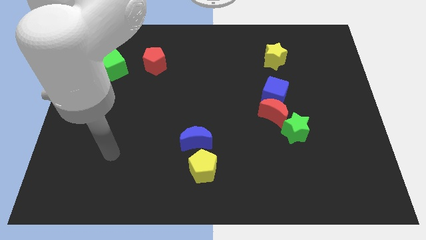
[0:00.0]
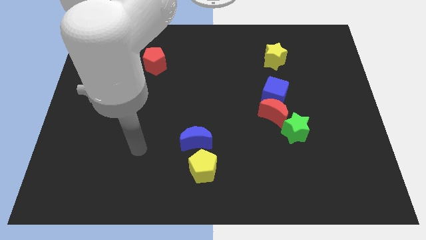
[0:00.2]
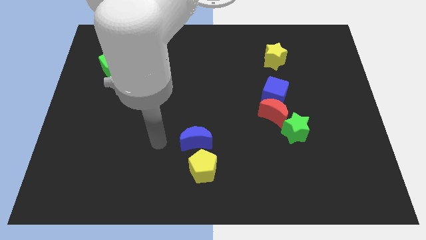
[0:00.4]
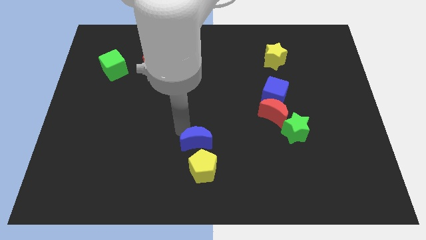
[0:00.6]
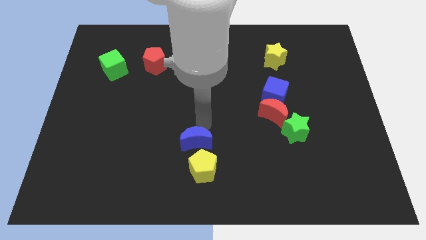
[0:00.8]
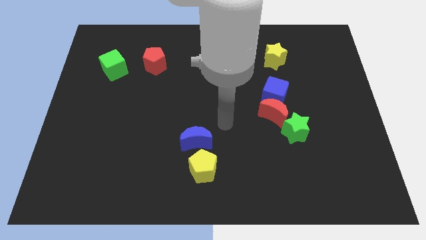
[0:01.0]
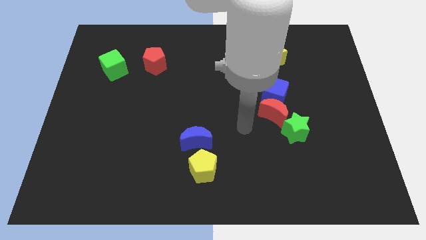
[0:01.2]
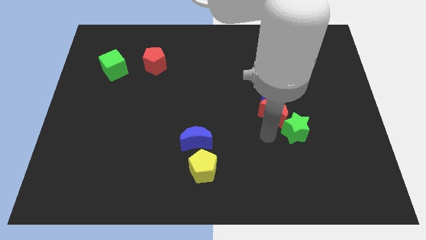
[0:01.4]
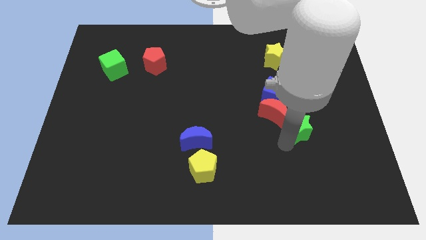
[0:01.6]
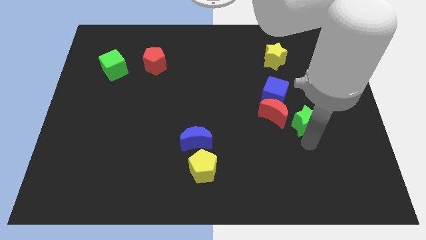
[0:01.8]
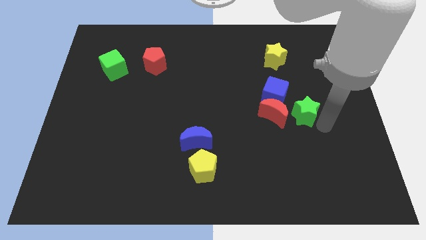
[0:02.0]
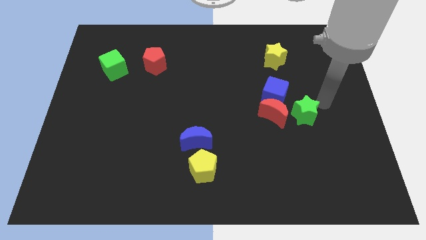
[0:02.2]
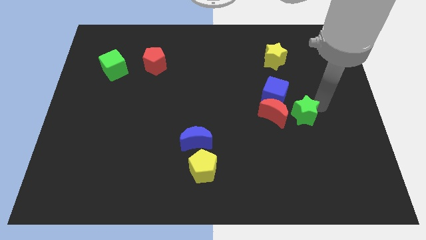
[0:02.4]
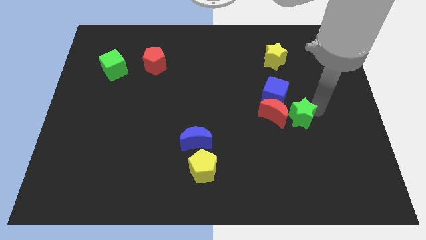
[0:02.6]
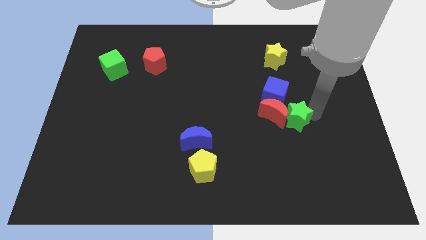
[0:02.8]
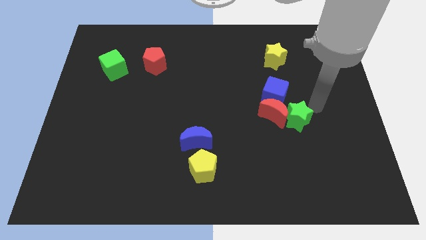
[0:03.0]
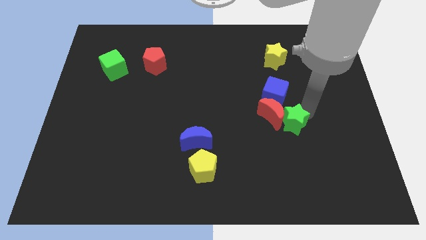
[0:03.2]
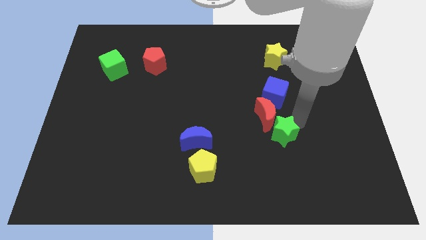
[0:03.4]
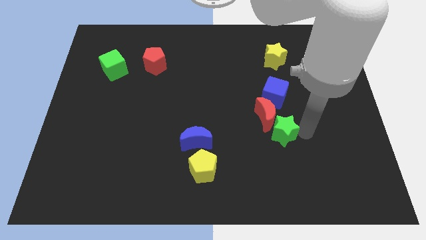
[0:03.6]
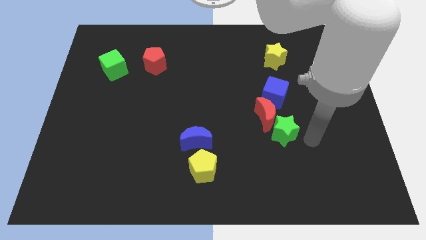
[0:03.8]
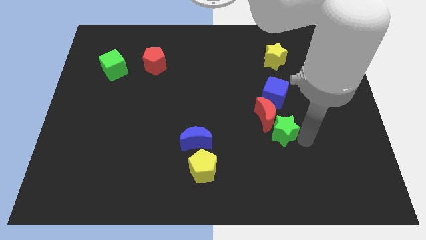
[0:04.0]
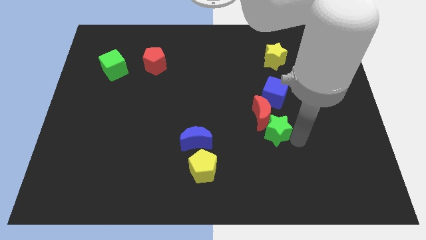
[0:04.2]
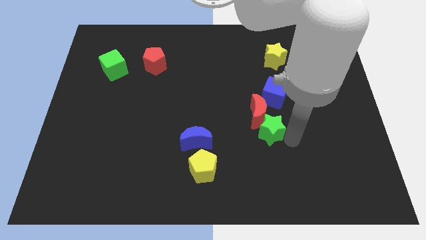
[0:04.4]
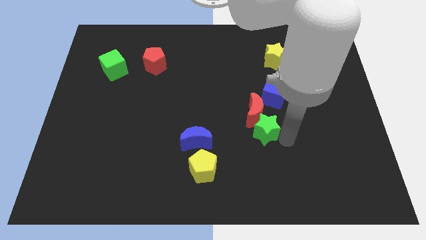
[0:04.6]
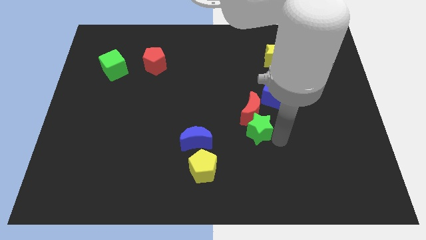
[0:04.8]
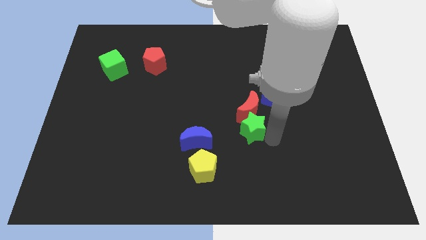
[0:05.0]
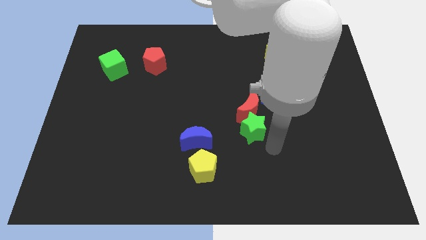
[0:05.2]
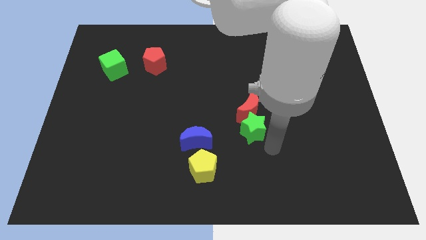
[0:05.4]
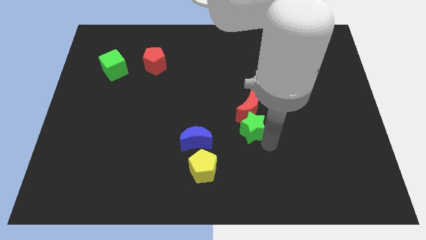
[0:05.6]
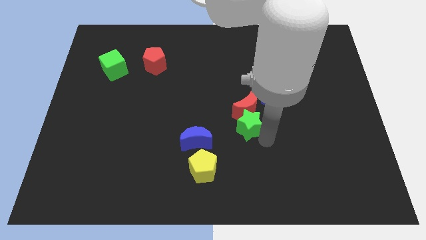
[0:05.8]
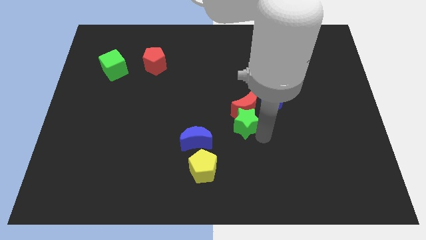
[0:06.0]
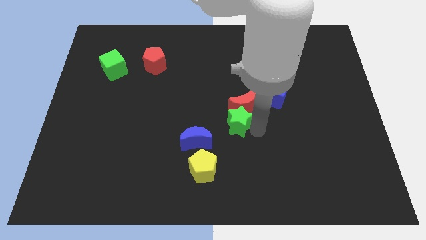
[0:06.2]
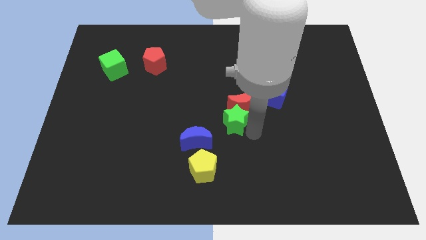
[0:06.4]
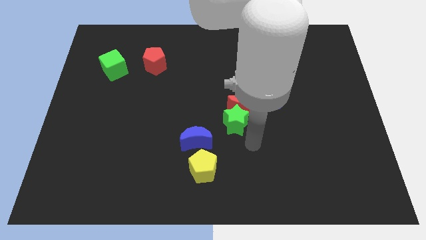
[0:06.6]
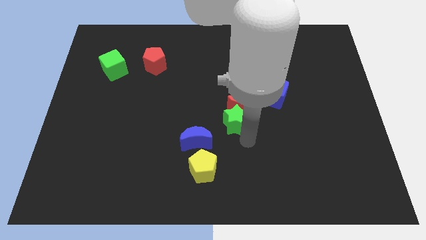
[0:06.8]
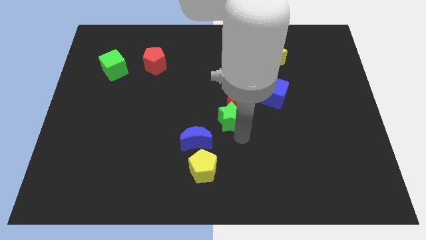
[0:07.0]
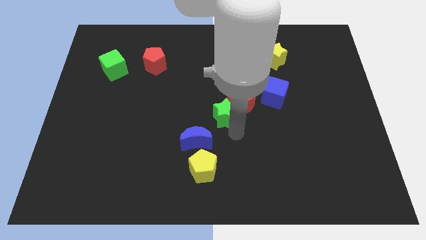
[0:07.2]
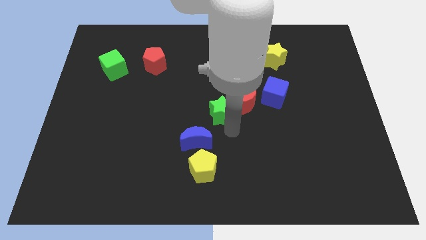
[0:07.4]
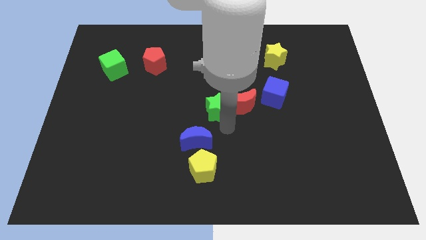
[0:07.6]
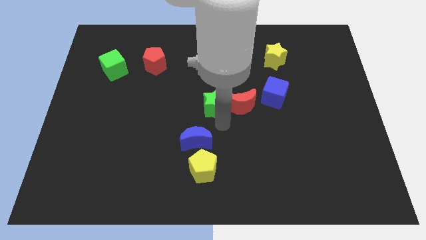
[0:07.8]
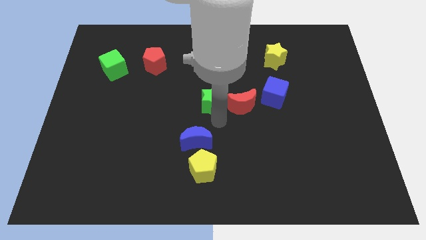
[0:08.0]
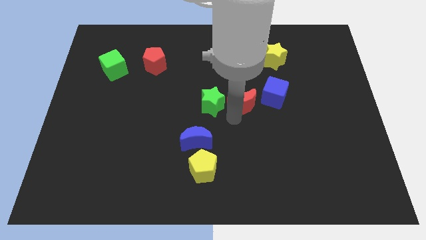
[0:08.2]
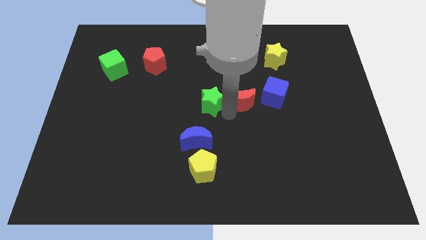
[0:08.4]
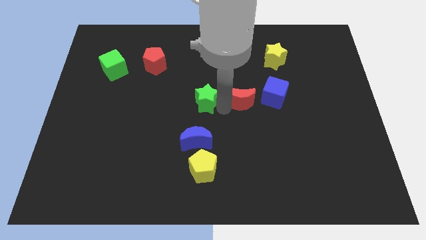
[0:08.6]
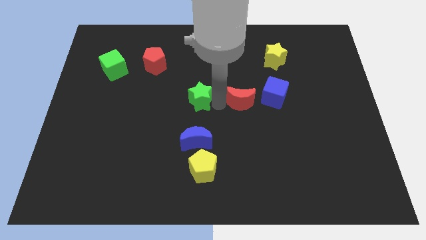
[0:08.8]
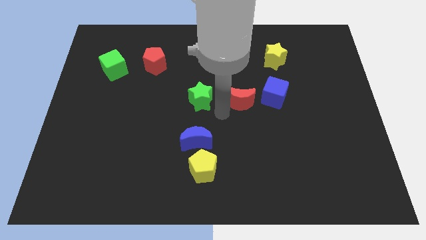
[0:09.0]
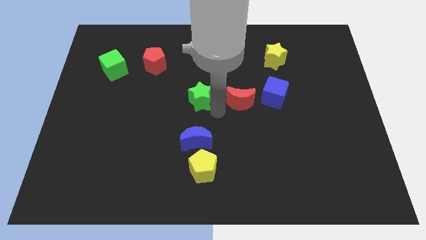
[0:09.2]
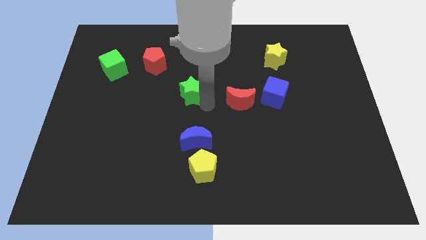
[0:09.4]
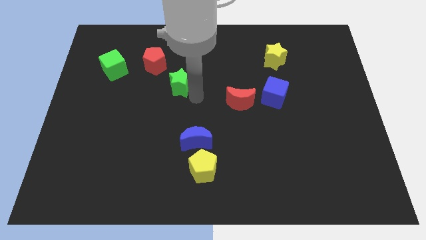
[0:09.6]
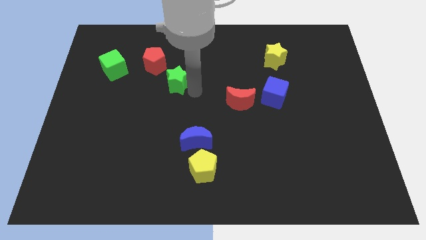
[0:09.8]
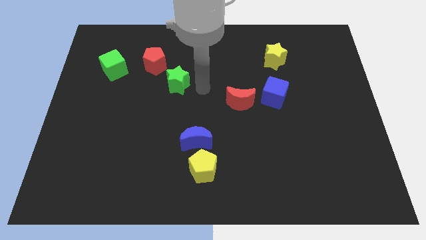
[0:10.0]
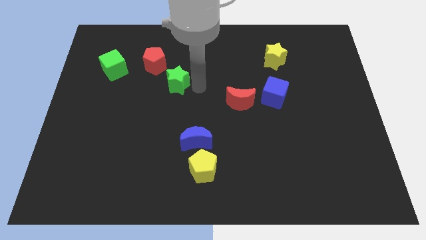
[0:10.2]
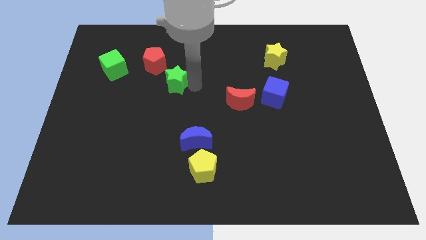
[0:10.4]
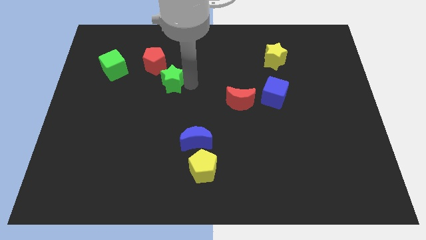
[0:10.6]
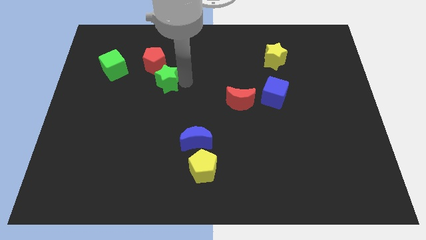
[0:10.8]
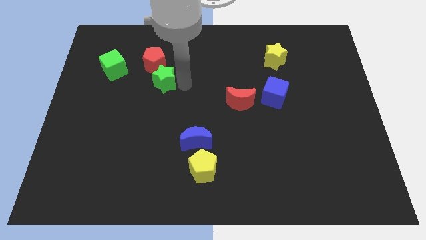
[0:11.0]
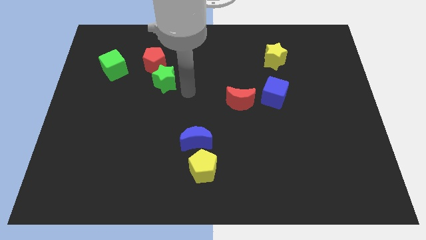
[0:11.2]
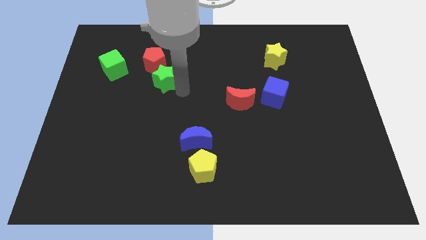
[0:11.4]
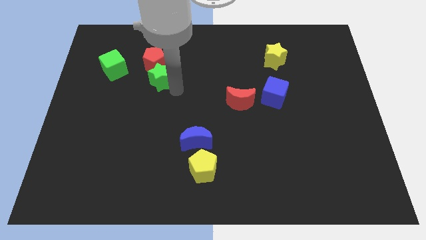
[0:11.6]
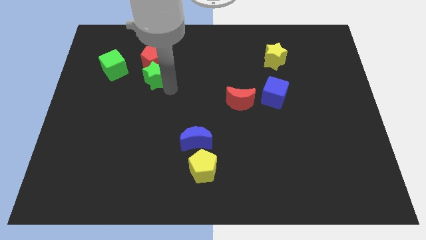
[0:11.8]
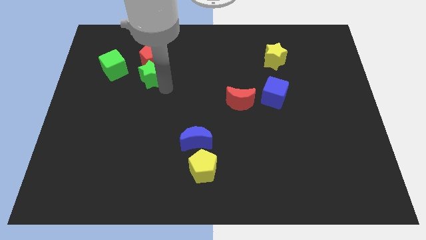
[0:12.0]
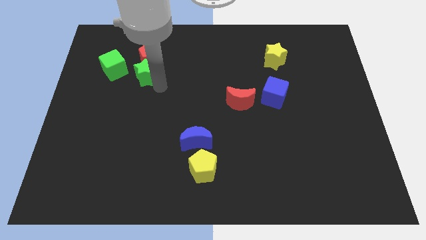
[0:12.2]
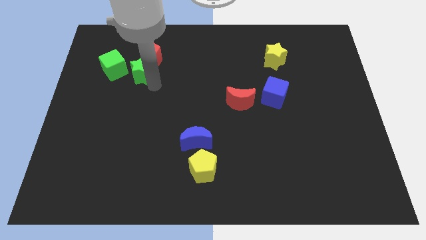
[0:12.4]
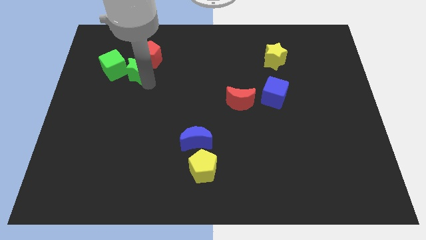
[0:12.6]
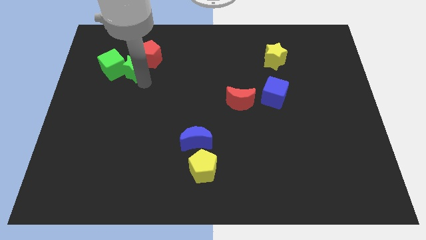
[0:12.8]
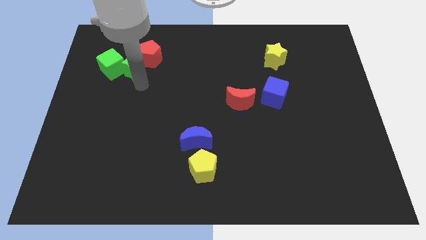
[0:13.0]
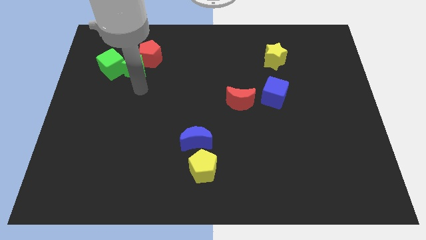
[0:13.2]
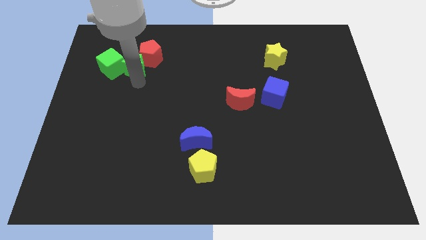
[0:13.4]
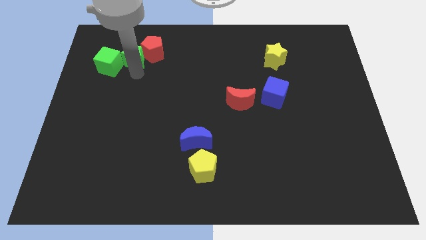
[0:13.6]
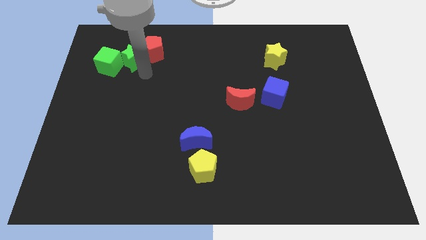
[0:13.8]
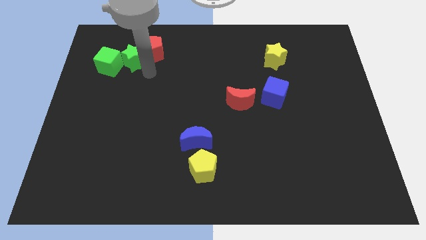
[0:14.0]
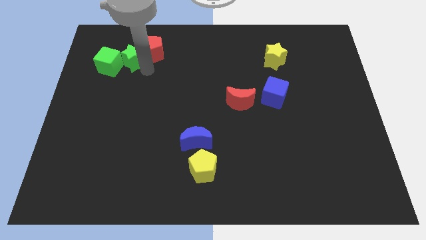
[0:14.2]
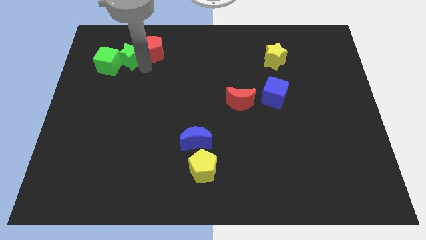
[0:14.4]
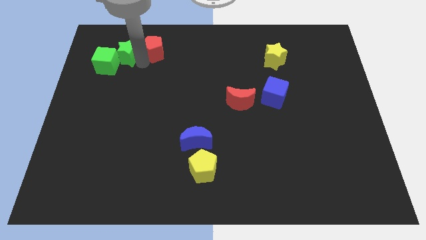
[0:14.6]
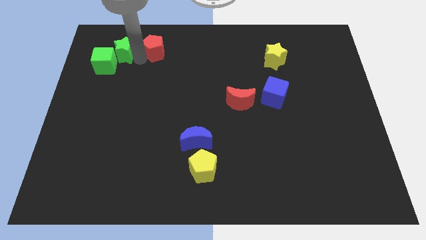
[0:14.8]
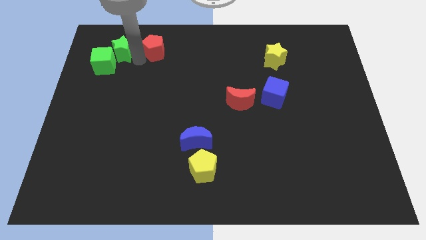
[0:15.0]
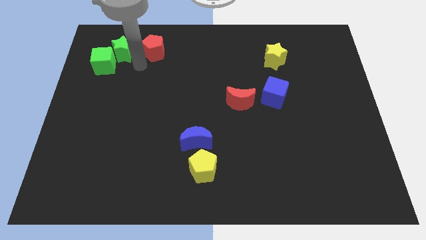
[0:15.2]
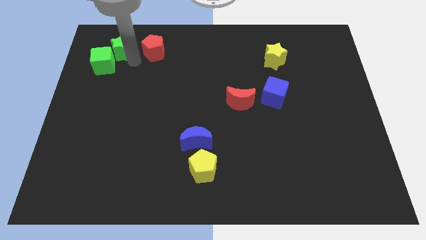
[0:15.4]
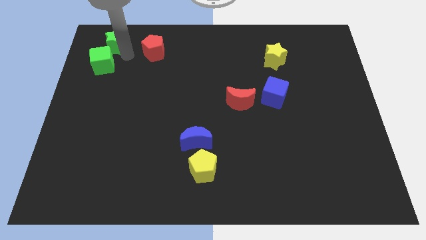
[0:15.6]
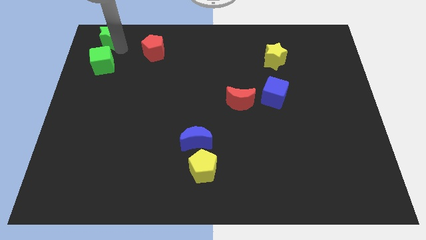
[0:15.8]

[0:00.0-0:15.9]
move the green star to the upper left corner
